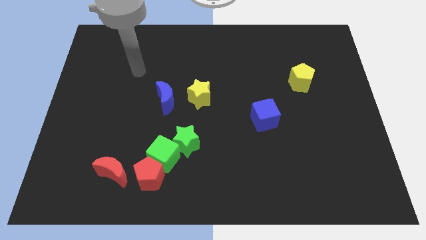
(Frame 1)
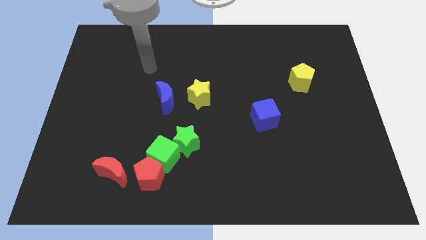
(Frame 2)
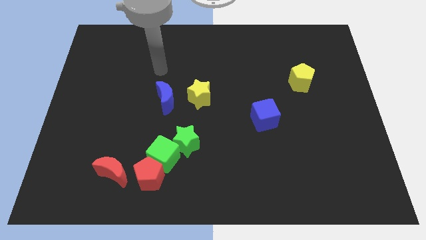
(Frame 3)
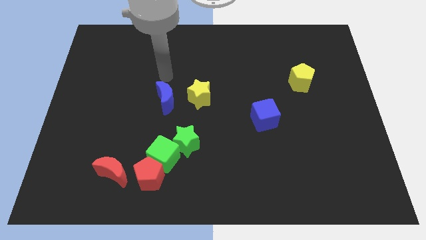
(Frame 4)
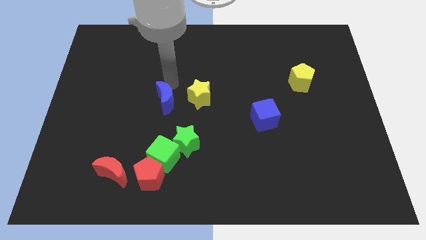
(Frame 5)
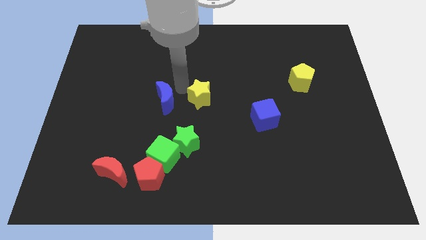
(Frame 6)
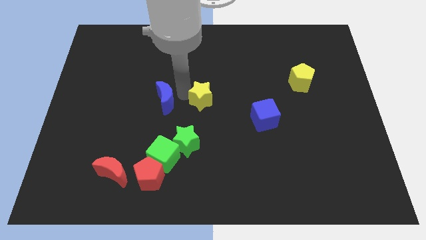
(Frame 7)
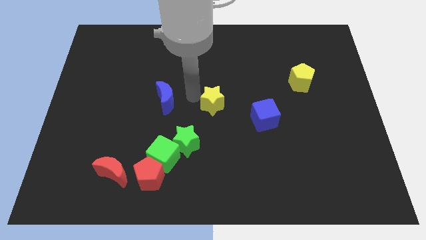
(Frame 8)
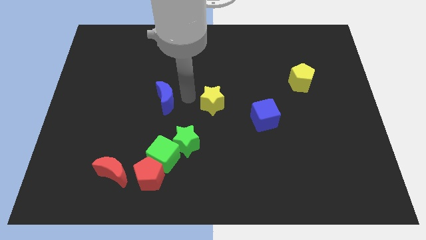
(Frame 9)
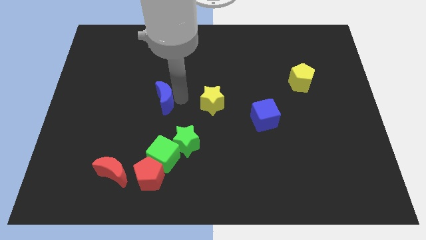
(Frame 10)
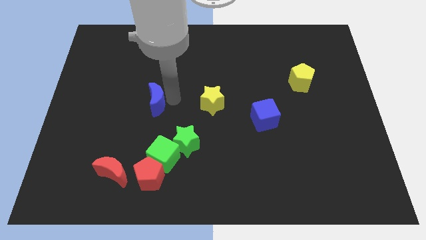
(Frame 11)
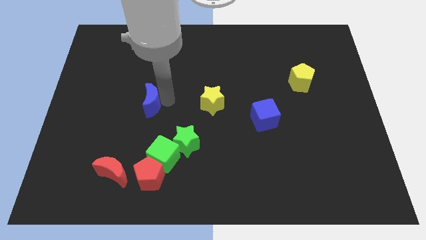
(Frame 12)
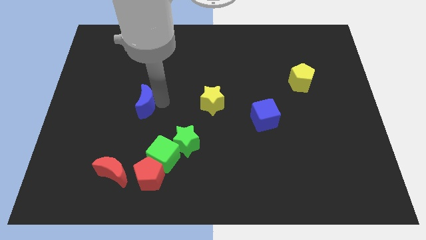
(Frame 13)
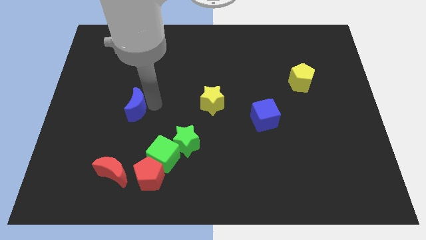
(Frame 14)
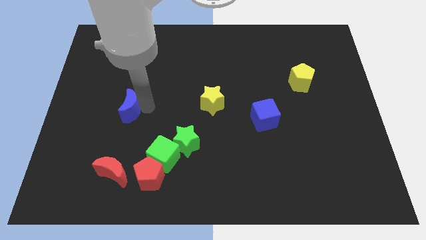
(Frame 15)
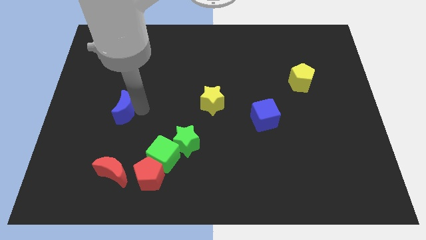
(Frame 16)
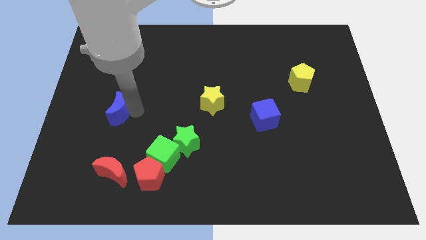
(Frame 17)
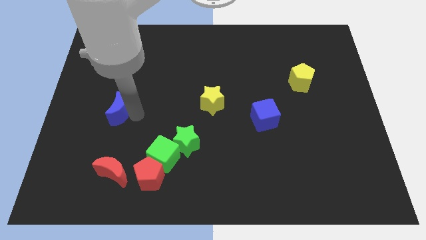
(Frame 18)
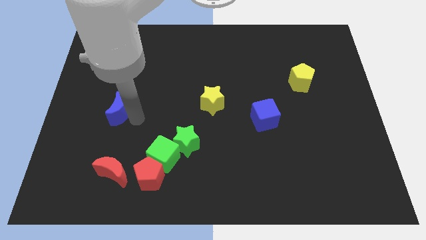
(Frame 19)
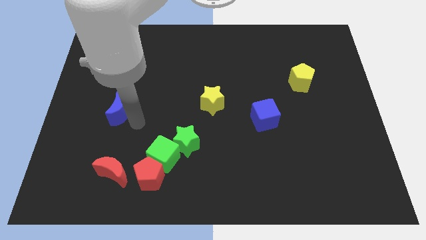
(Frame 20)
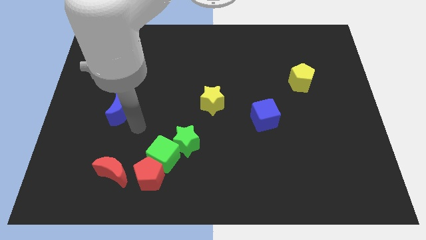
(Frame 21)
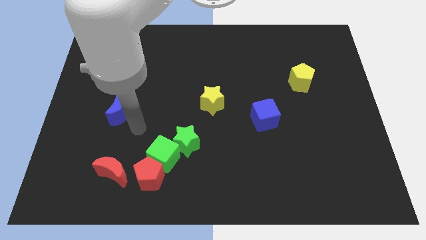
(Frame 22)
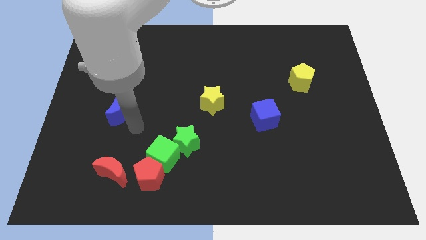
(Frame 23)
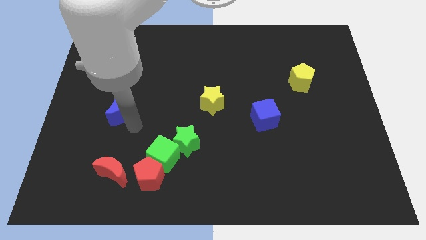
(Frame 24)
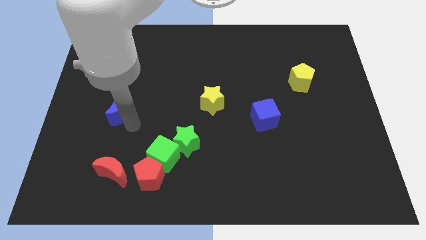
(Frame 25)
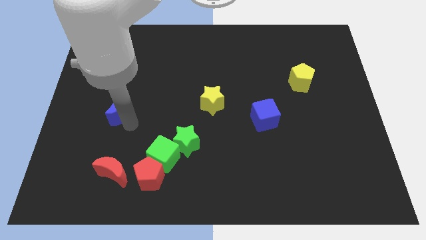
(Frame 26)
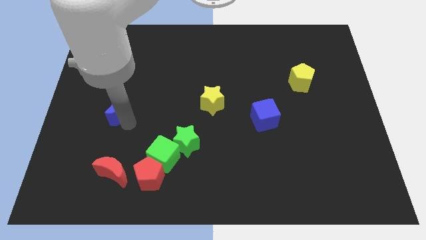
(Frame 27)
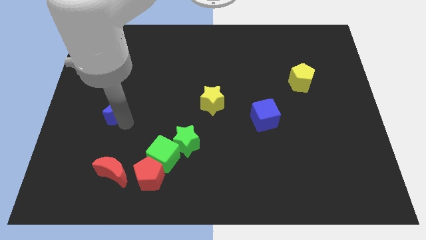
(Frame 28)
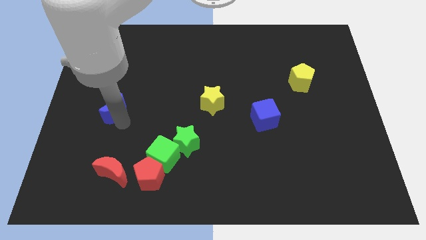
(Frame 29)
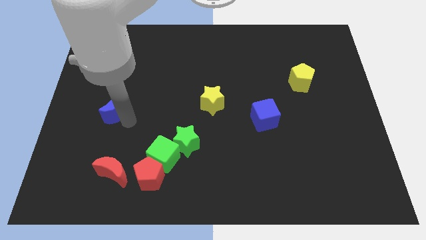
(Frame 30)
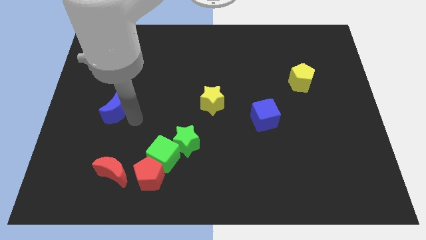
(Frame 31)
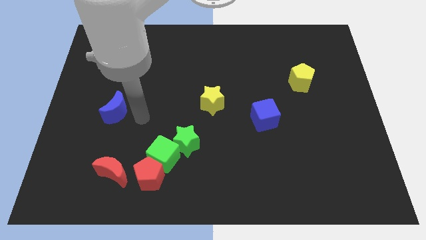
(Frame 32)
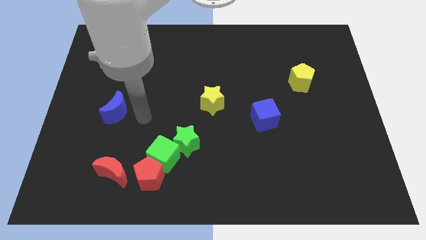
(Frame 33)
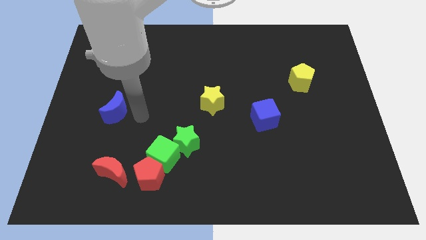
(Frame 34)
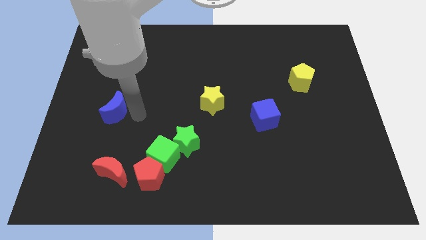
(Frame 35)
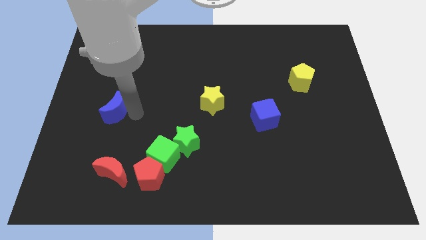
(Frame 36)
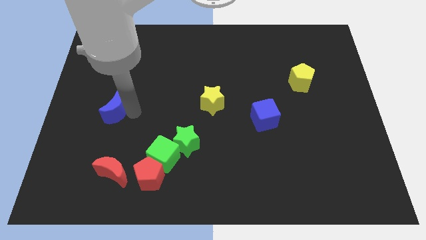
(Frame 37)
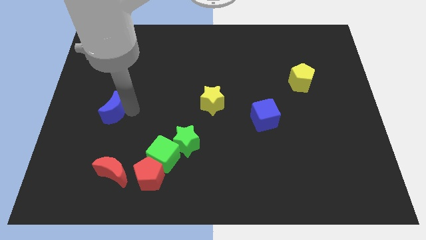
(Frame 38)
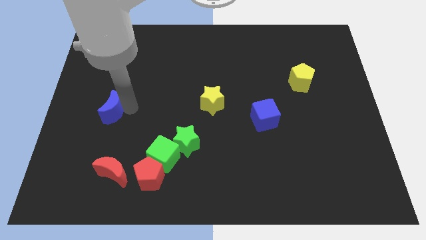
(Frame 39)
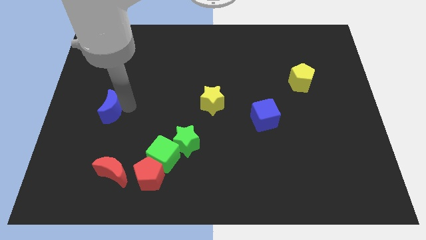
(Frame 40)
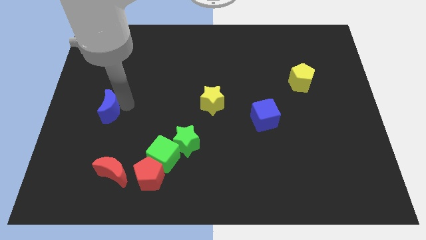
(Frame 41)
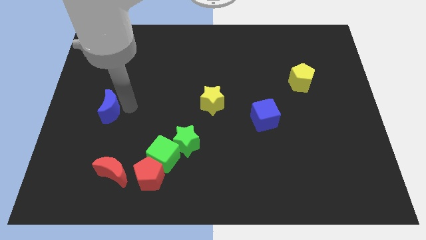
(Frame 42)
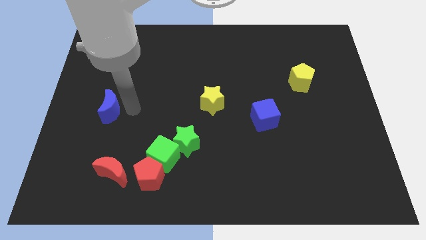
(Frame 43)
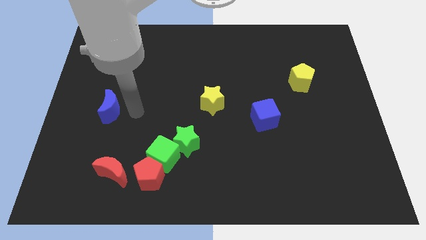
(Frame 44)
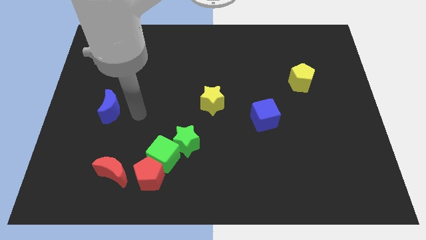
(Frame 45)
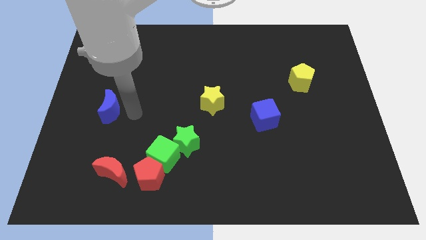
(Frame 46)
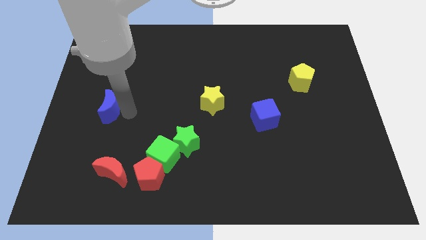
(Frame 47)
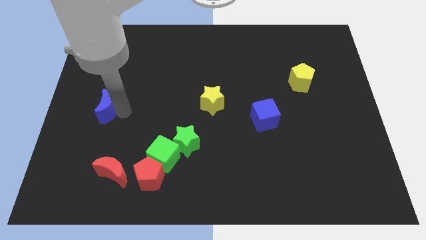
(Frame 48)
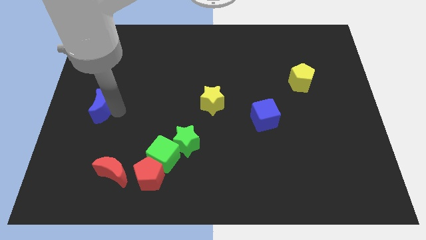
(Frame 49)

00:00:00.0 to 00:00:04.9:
move the blue moon to the left side of the board

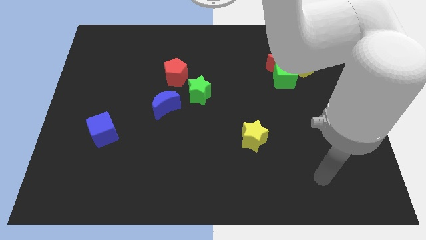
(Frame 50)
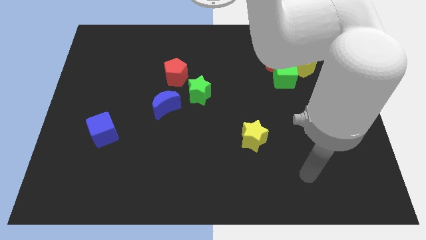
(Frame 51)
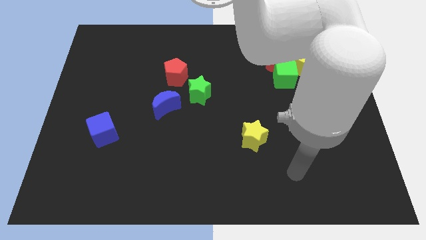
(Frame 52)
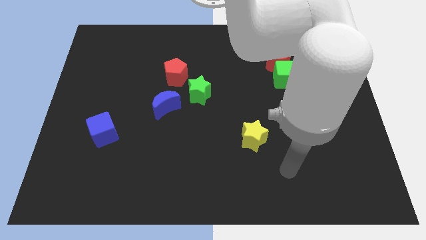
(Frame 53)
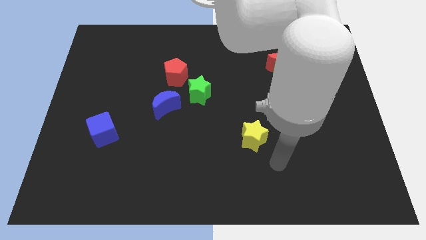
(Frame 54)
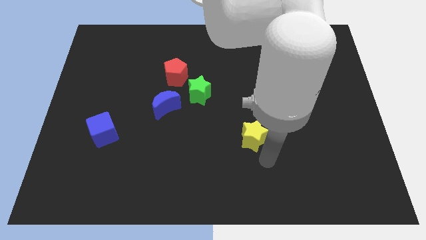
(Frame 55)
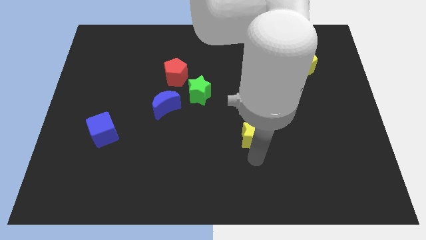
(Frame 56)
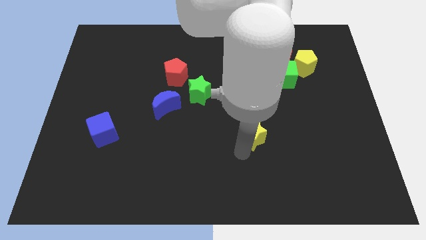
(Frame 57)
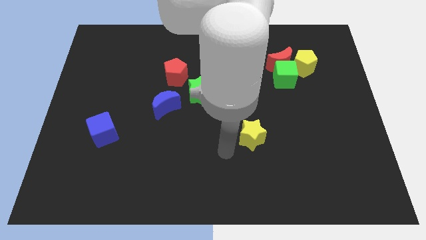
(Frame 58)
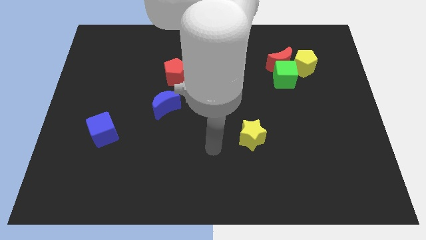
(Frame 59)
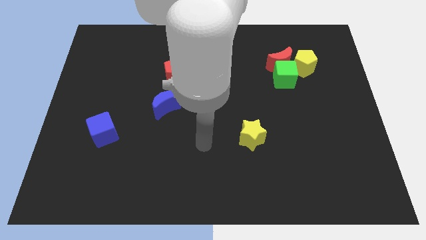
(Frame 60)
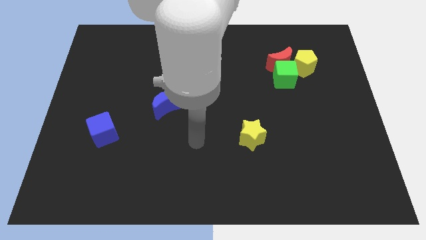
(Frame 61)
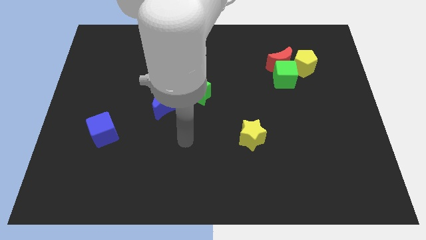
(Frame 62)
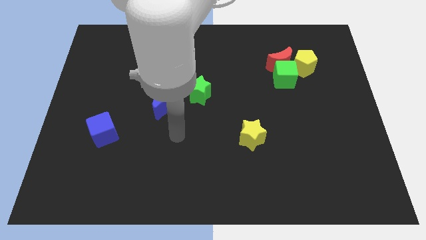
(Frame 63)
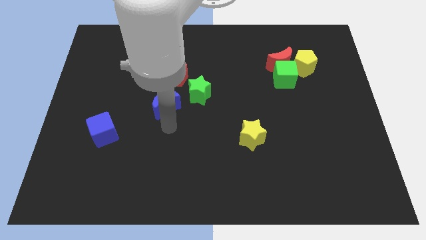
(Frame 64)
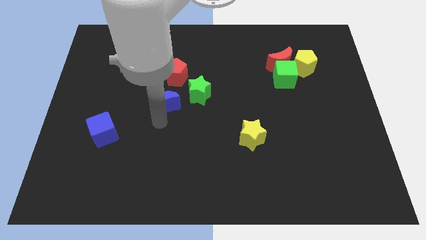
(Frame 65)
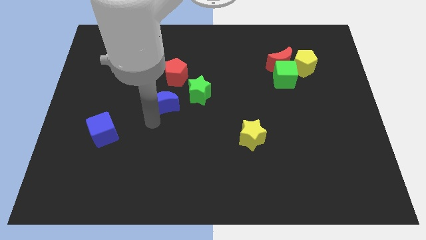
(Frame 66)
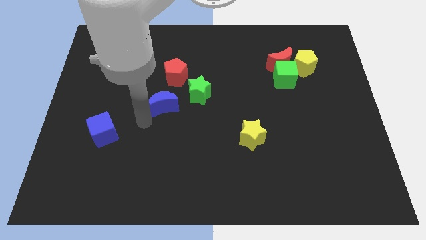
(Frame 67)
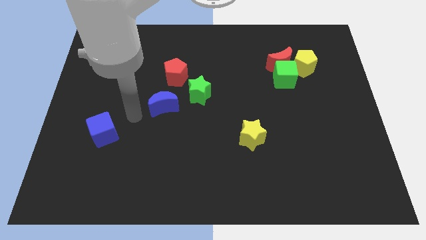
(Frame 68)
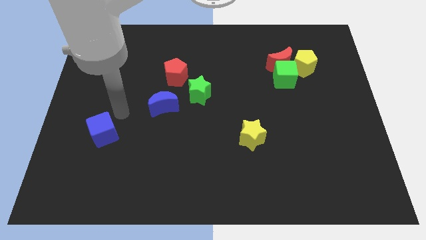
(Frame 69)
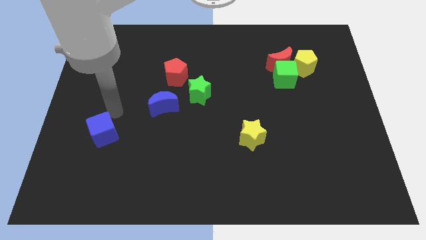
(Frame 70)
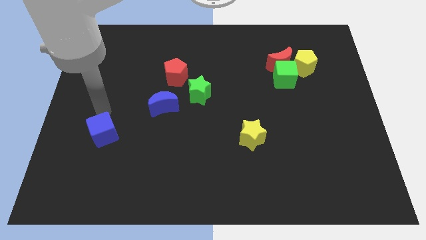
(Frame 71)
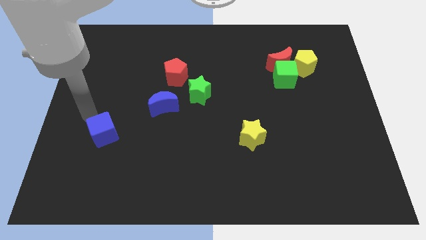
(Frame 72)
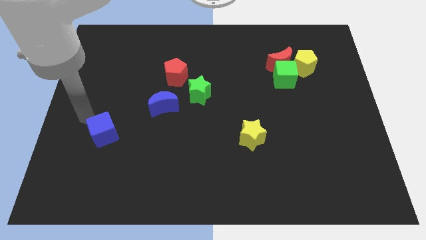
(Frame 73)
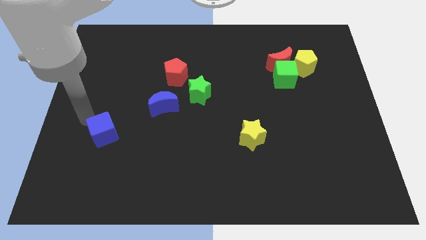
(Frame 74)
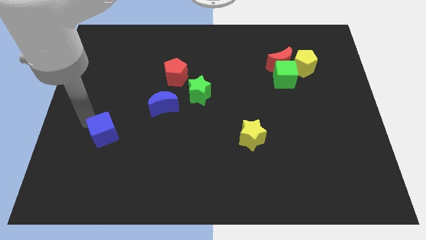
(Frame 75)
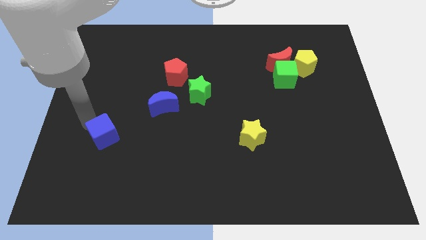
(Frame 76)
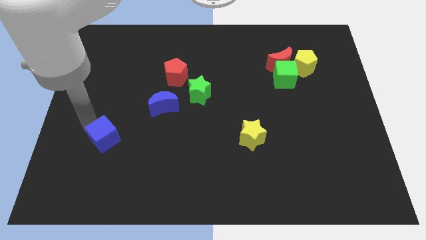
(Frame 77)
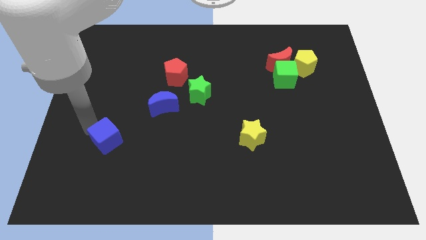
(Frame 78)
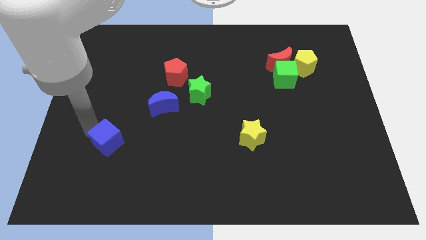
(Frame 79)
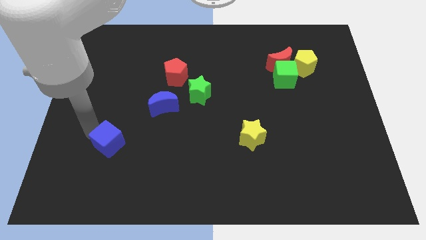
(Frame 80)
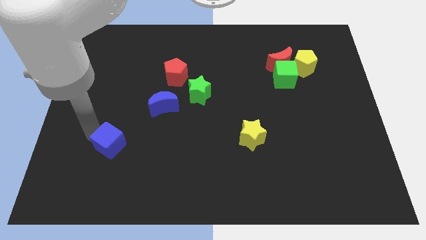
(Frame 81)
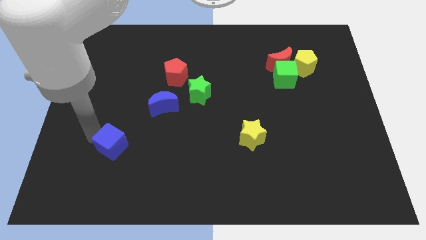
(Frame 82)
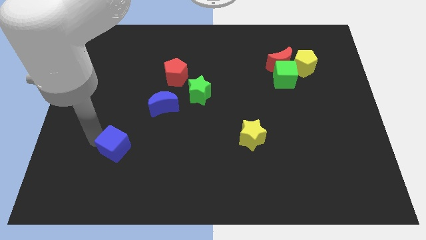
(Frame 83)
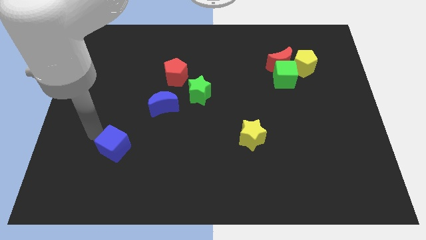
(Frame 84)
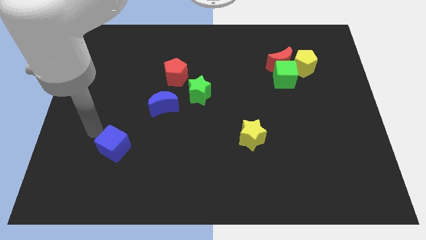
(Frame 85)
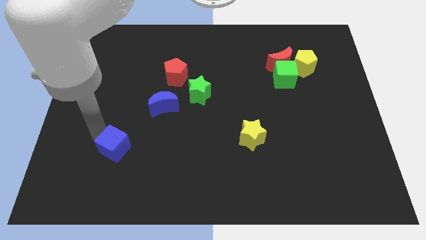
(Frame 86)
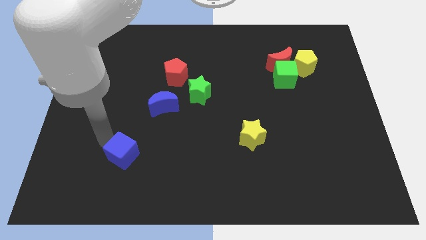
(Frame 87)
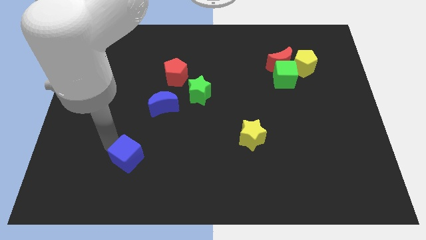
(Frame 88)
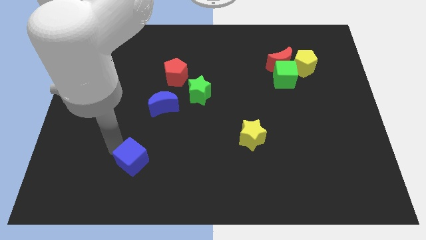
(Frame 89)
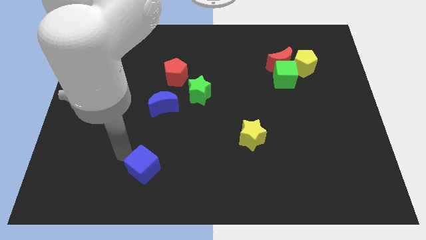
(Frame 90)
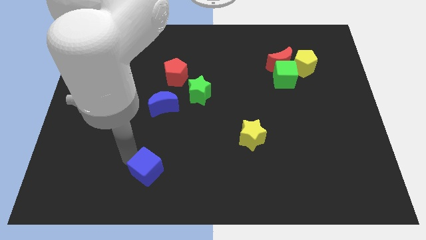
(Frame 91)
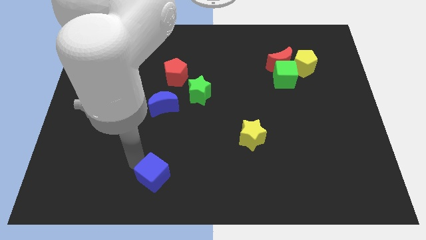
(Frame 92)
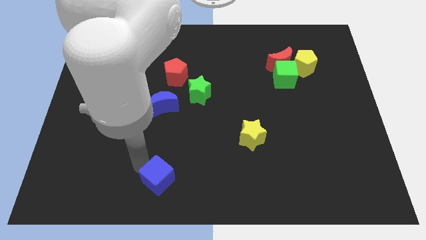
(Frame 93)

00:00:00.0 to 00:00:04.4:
move the blue cube to the bottom
